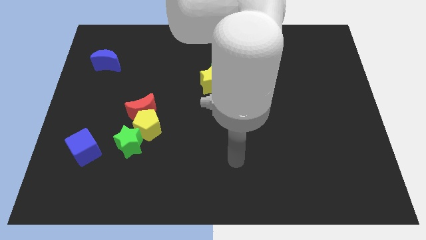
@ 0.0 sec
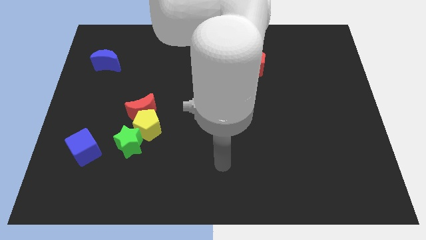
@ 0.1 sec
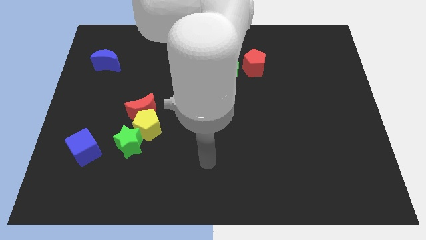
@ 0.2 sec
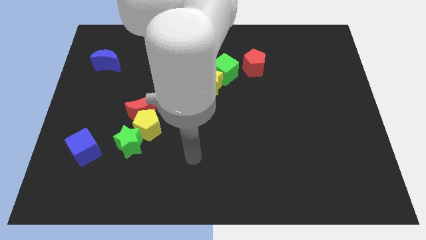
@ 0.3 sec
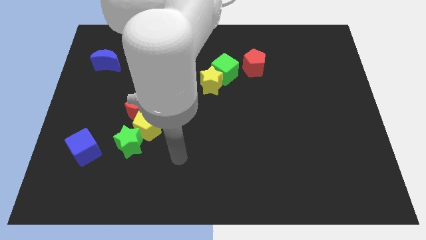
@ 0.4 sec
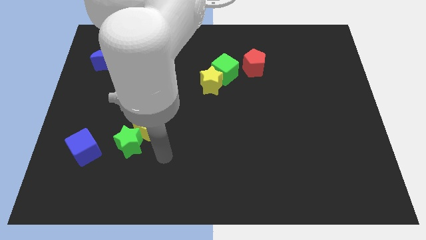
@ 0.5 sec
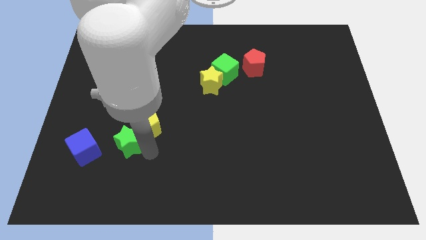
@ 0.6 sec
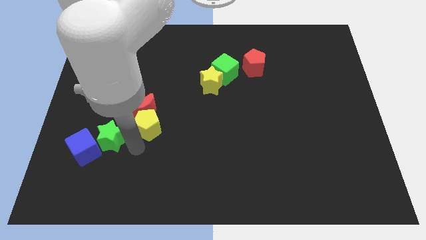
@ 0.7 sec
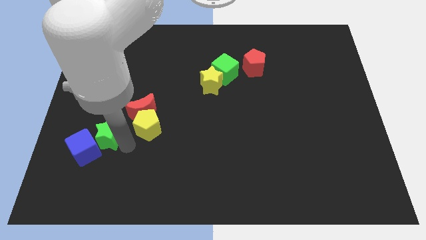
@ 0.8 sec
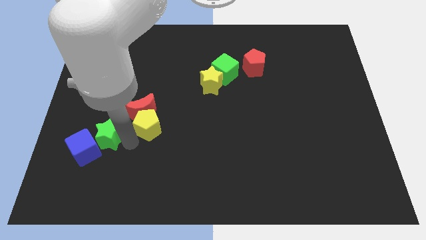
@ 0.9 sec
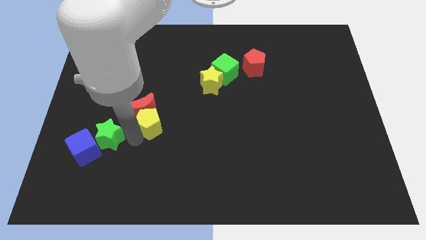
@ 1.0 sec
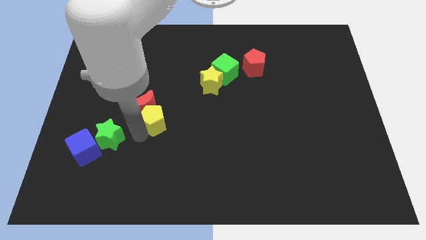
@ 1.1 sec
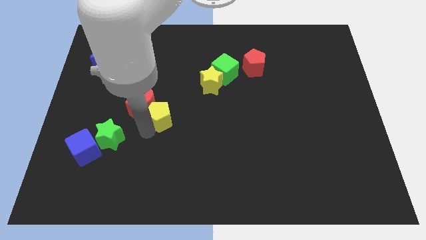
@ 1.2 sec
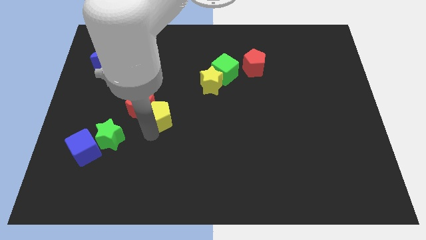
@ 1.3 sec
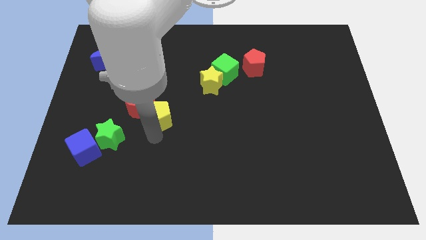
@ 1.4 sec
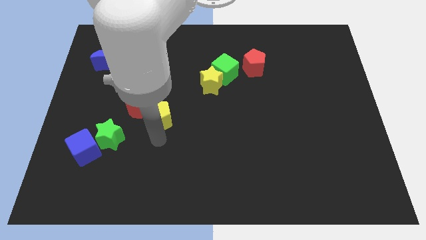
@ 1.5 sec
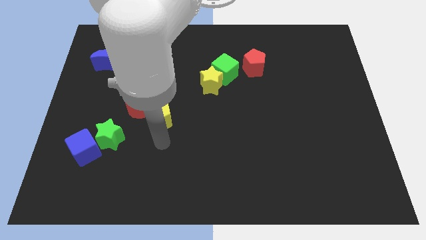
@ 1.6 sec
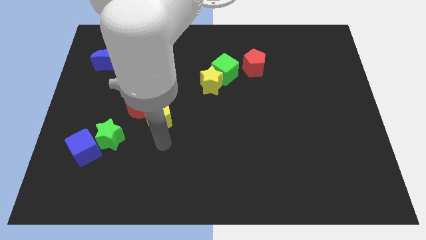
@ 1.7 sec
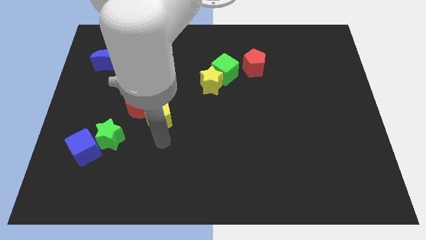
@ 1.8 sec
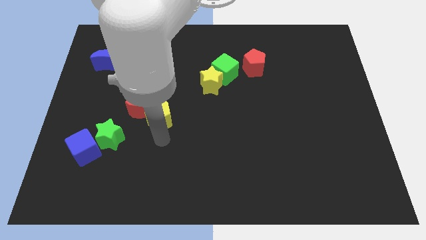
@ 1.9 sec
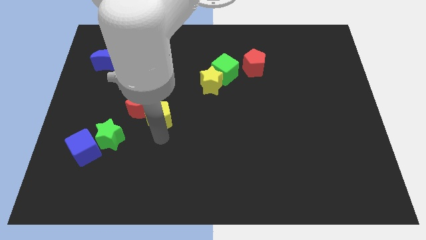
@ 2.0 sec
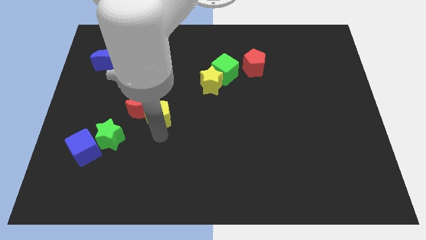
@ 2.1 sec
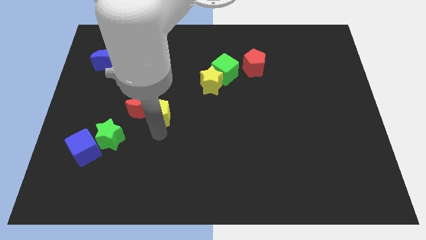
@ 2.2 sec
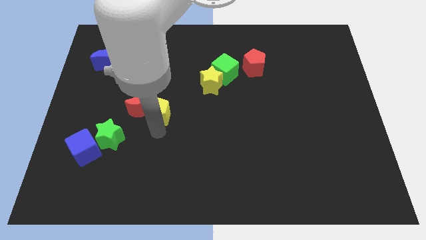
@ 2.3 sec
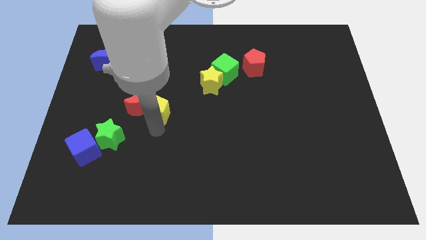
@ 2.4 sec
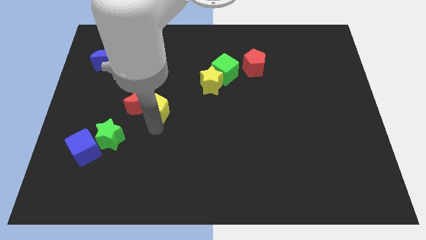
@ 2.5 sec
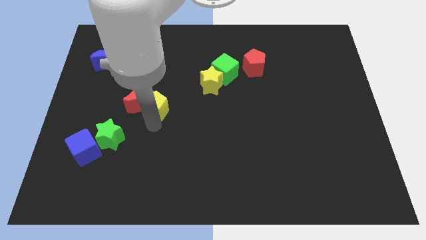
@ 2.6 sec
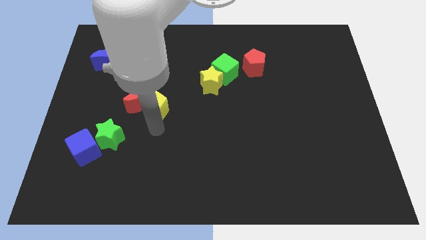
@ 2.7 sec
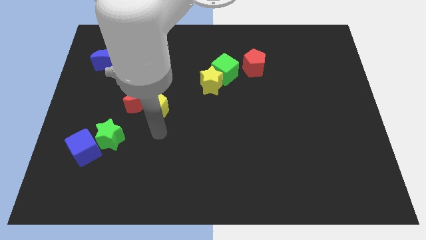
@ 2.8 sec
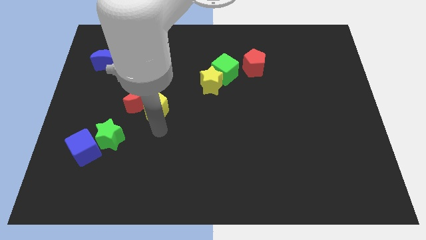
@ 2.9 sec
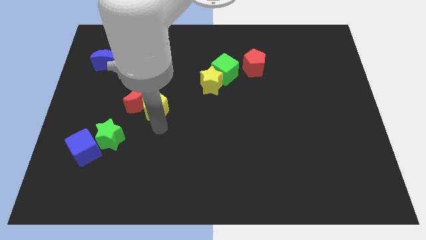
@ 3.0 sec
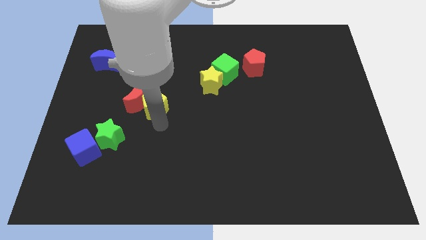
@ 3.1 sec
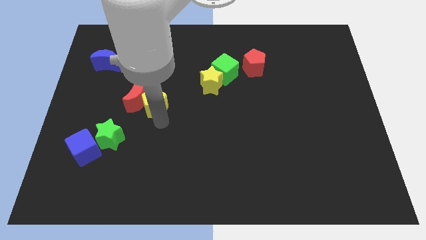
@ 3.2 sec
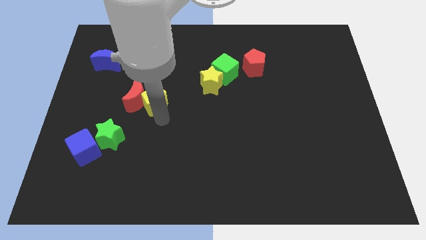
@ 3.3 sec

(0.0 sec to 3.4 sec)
slide the yellow pentagon a little upwards

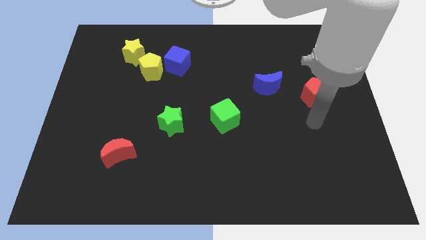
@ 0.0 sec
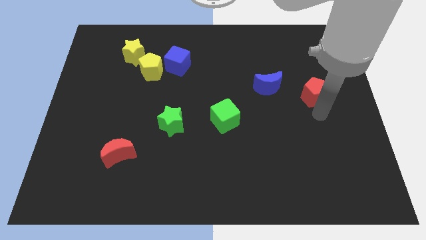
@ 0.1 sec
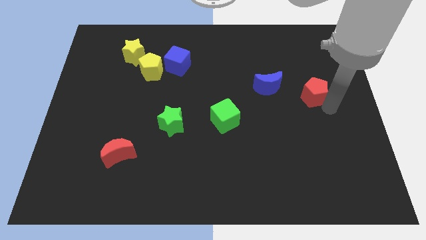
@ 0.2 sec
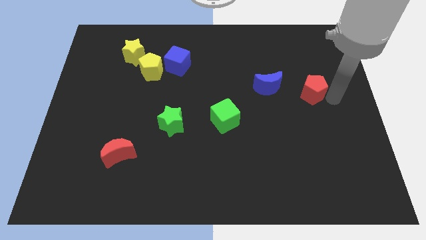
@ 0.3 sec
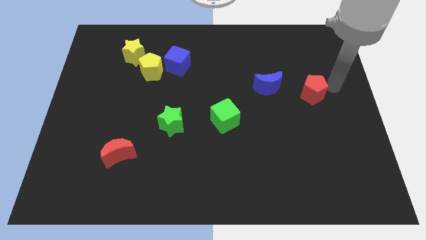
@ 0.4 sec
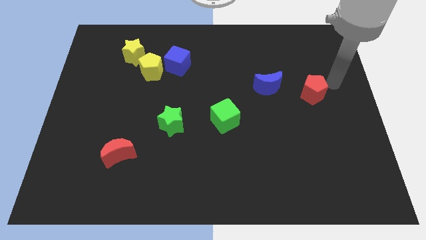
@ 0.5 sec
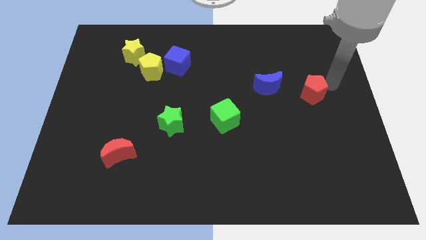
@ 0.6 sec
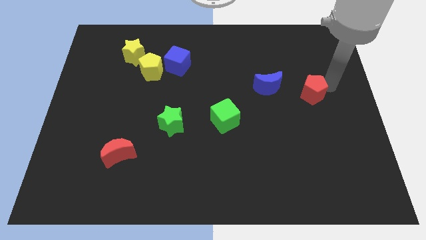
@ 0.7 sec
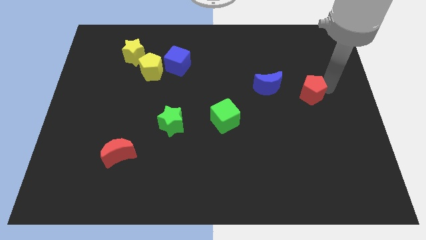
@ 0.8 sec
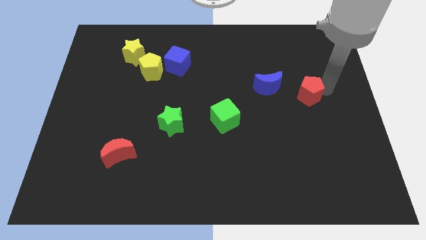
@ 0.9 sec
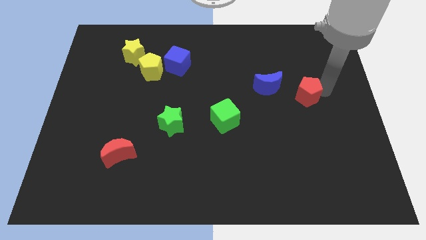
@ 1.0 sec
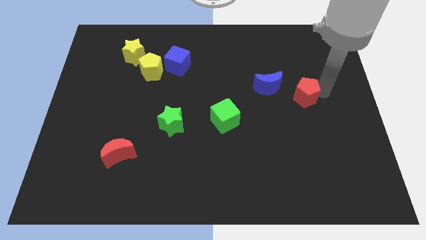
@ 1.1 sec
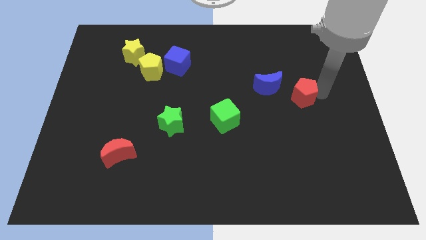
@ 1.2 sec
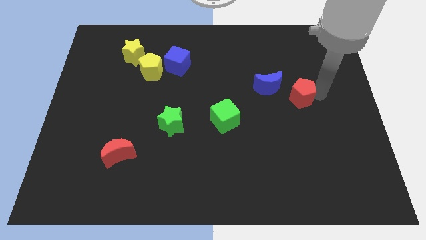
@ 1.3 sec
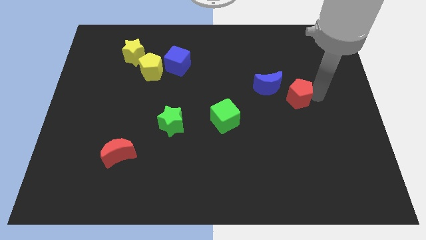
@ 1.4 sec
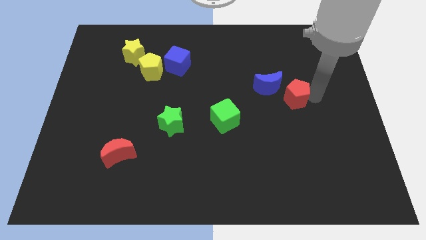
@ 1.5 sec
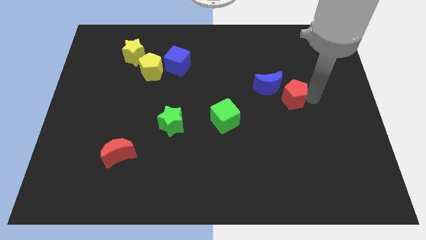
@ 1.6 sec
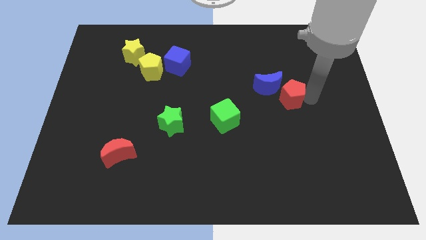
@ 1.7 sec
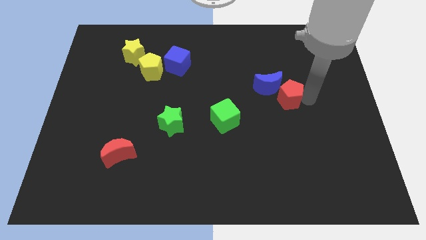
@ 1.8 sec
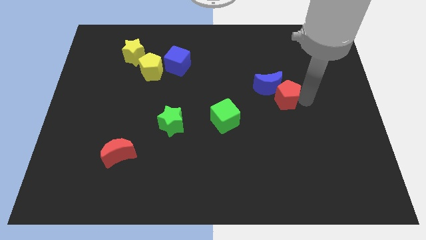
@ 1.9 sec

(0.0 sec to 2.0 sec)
slightly move the red pentagon left

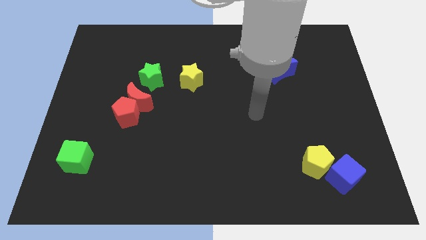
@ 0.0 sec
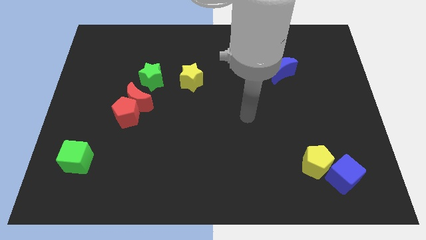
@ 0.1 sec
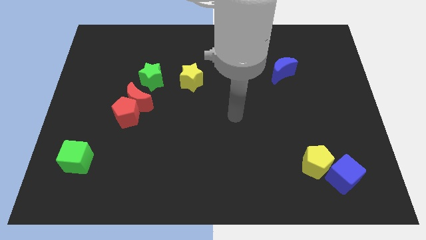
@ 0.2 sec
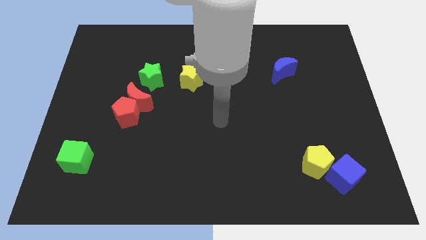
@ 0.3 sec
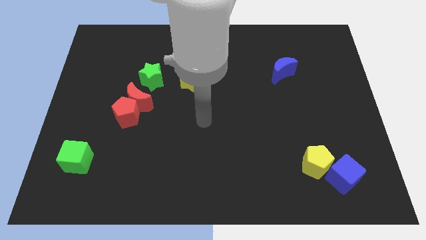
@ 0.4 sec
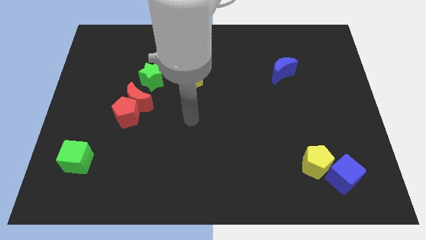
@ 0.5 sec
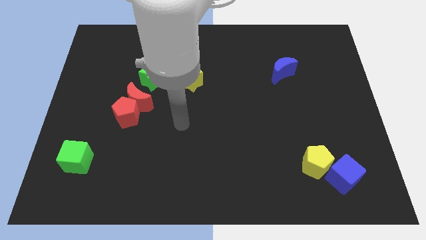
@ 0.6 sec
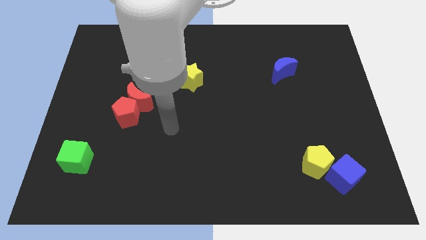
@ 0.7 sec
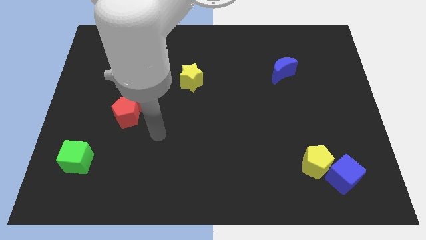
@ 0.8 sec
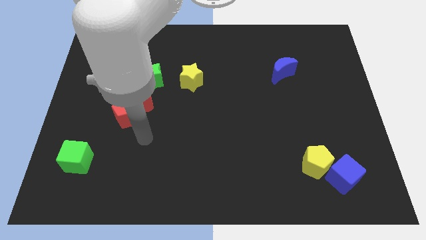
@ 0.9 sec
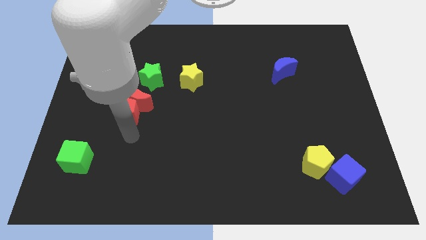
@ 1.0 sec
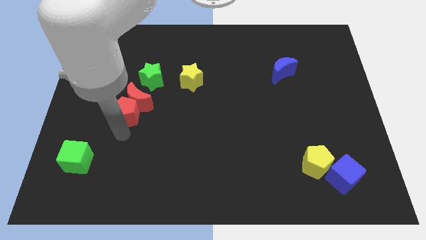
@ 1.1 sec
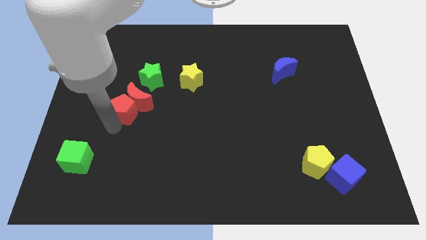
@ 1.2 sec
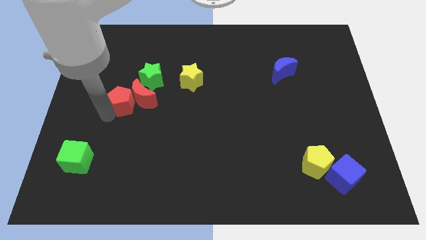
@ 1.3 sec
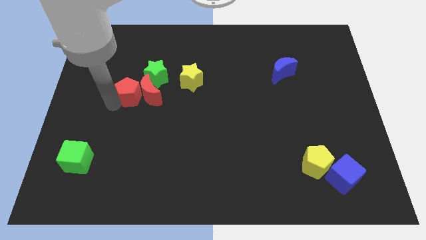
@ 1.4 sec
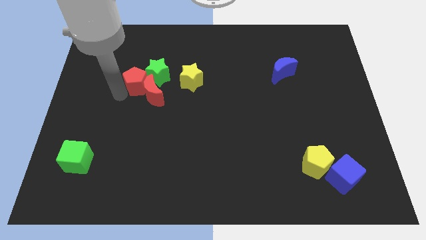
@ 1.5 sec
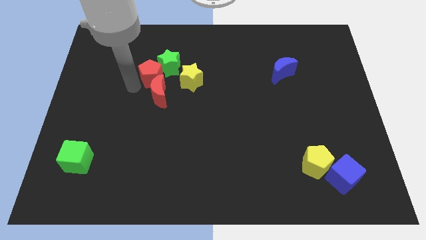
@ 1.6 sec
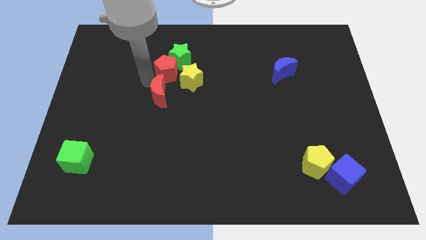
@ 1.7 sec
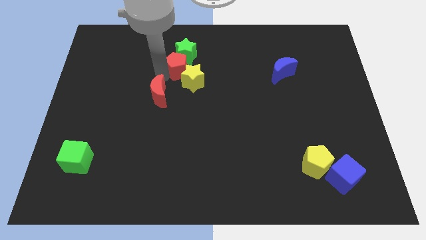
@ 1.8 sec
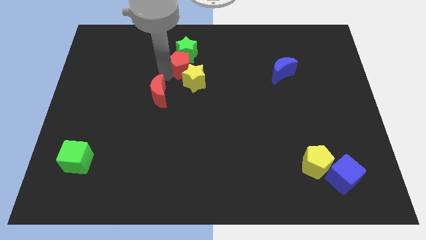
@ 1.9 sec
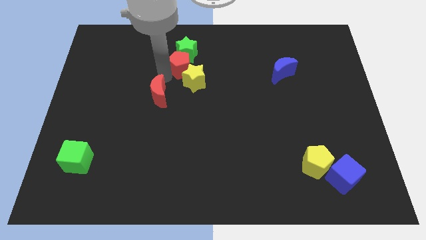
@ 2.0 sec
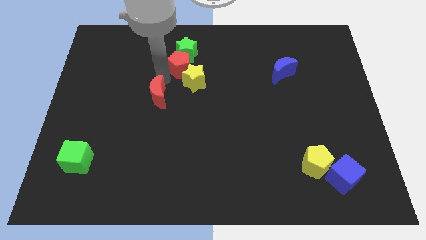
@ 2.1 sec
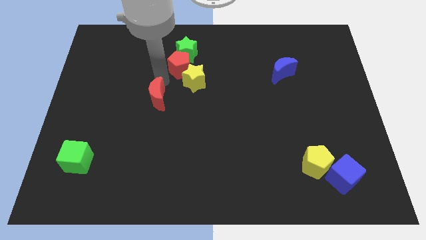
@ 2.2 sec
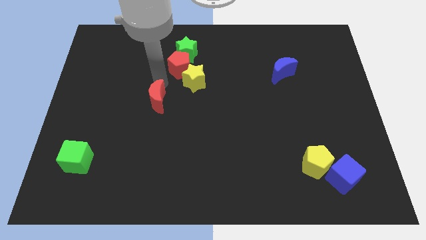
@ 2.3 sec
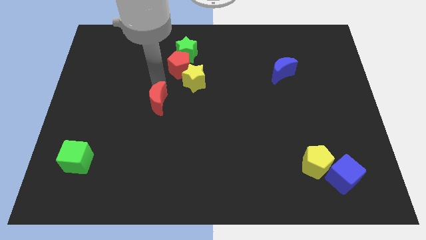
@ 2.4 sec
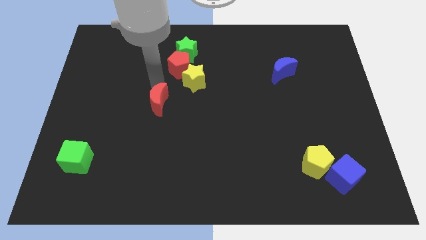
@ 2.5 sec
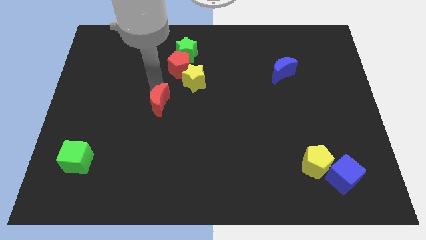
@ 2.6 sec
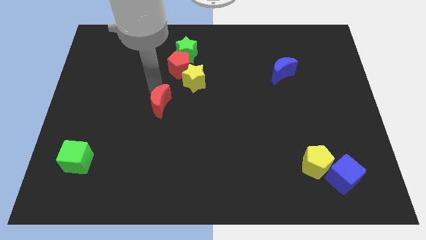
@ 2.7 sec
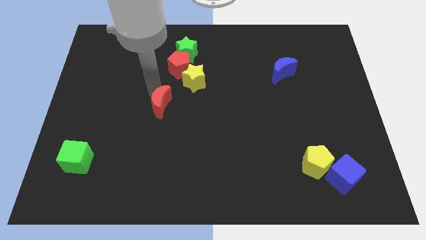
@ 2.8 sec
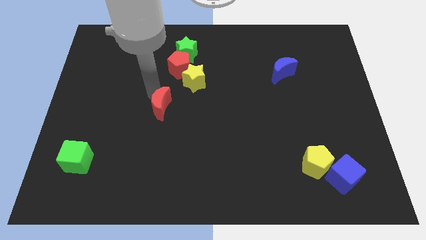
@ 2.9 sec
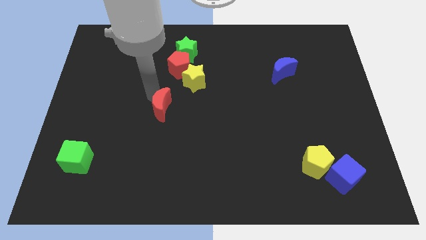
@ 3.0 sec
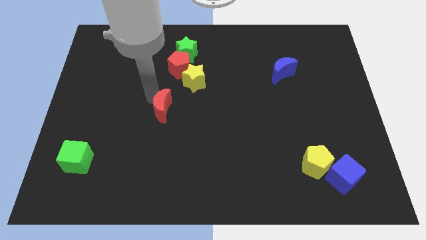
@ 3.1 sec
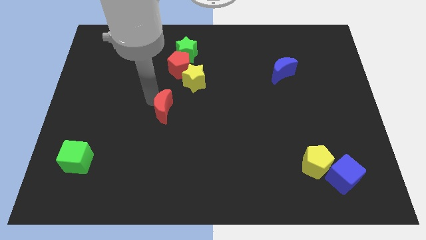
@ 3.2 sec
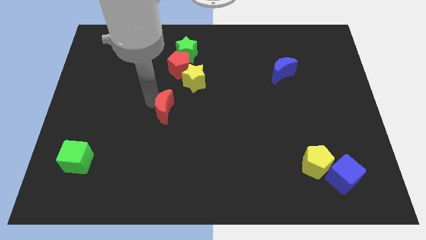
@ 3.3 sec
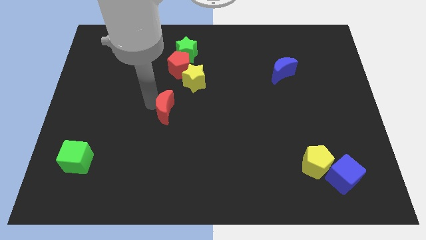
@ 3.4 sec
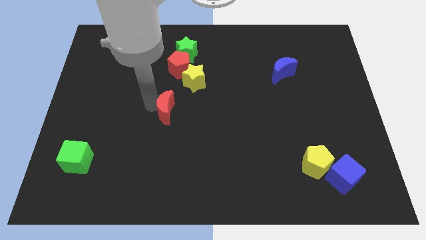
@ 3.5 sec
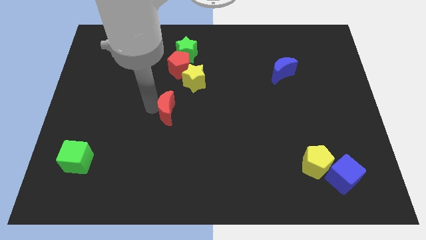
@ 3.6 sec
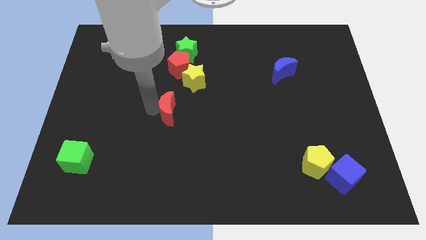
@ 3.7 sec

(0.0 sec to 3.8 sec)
slide the red moon down and to the right diagonally somewhat
